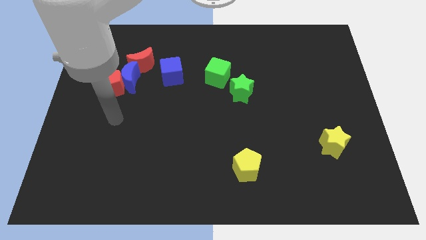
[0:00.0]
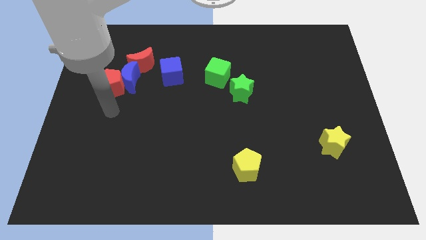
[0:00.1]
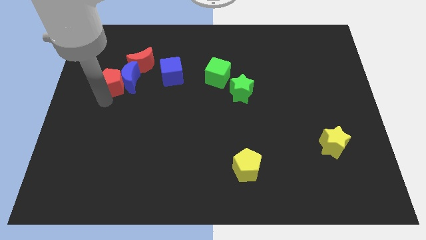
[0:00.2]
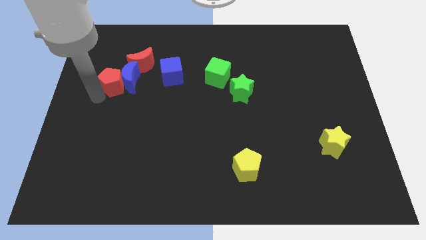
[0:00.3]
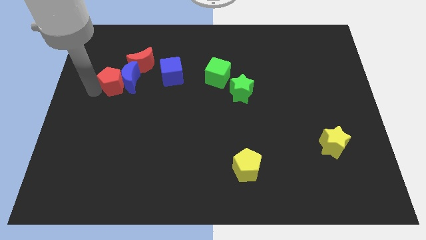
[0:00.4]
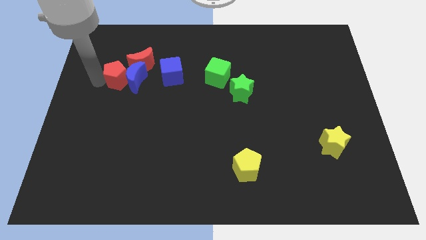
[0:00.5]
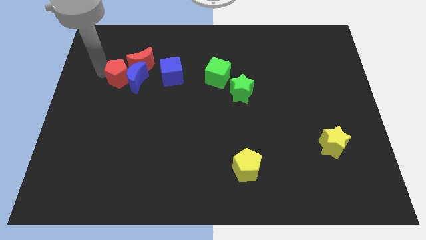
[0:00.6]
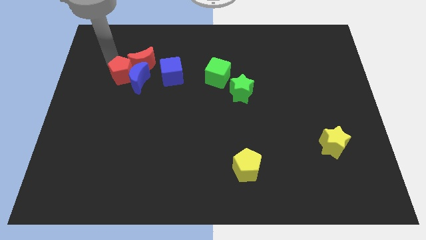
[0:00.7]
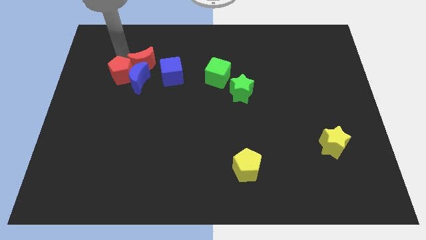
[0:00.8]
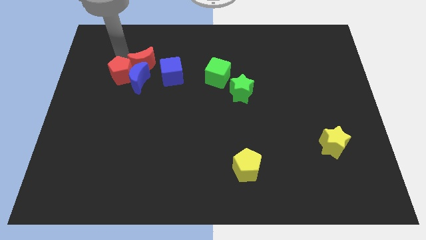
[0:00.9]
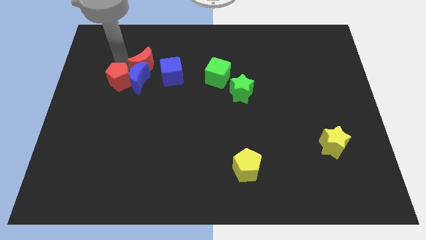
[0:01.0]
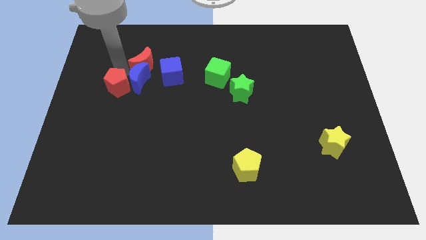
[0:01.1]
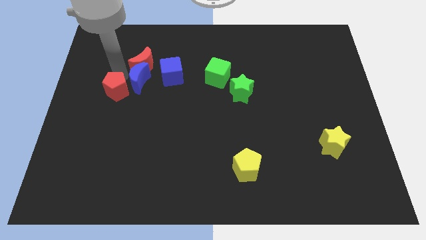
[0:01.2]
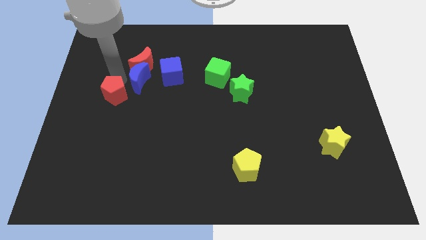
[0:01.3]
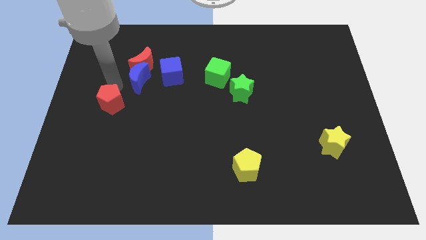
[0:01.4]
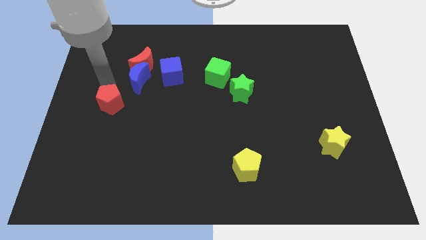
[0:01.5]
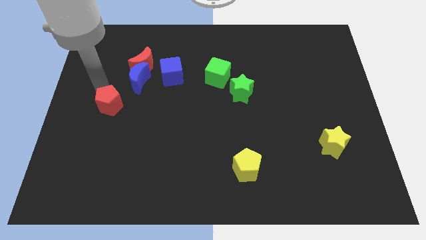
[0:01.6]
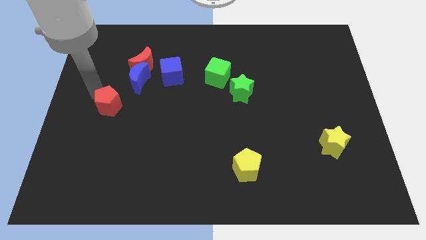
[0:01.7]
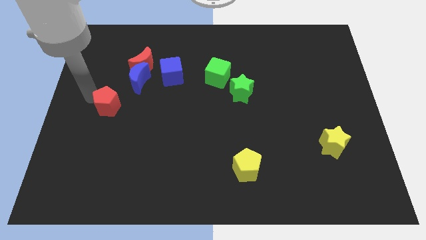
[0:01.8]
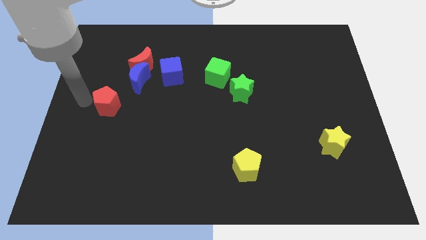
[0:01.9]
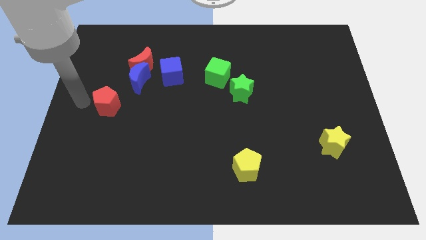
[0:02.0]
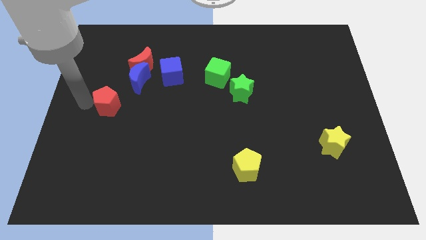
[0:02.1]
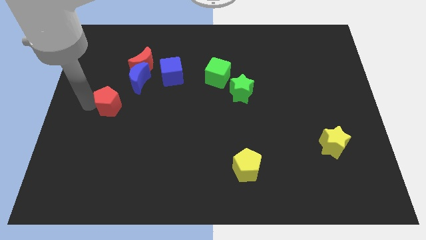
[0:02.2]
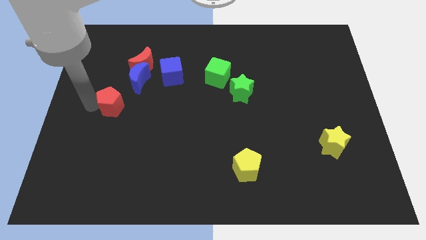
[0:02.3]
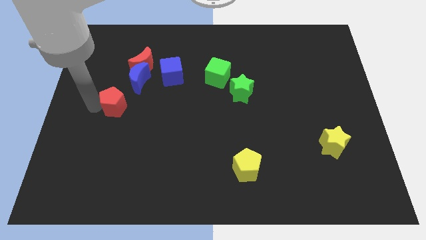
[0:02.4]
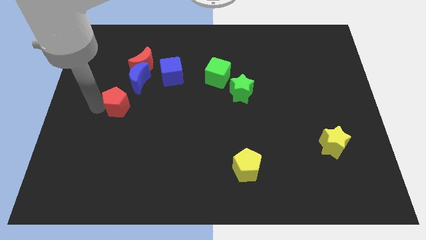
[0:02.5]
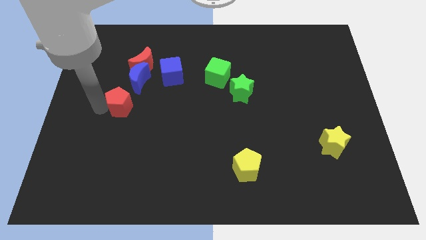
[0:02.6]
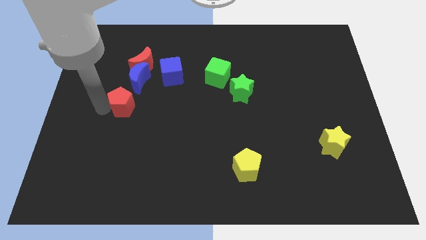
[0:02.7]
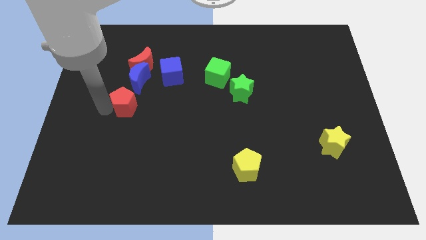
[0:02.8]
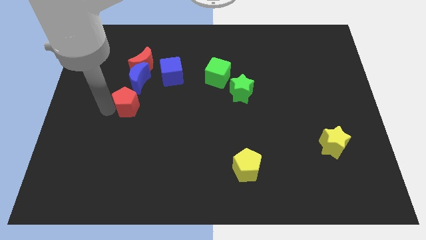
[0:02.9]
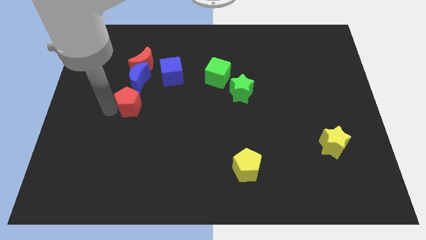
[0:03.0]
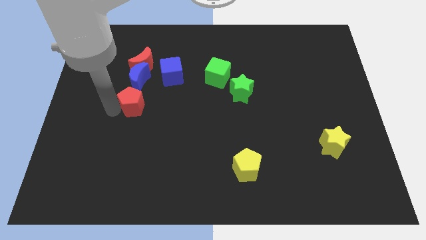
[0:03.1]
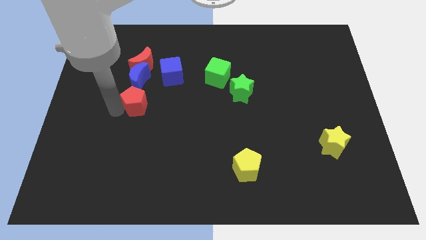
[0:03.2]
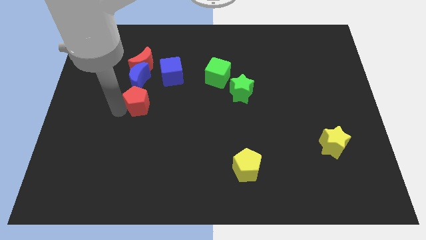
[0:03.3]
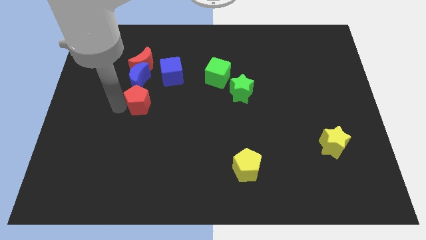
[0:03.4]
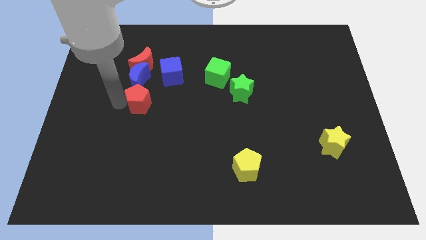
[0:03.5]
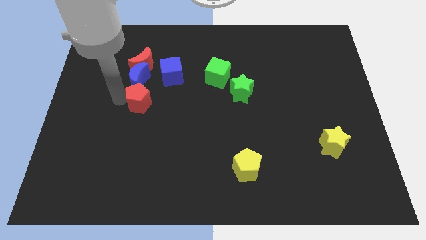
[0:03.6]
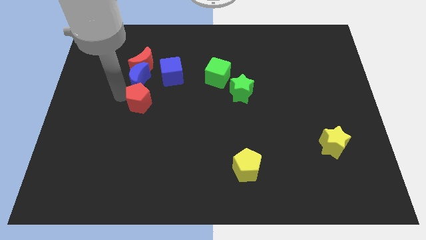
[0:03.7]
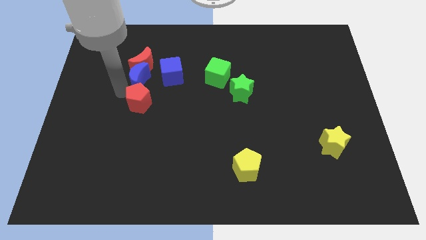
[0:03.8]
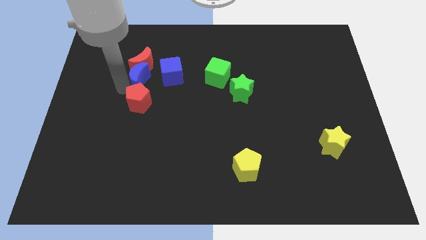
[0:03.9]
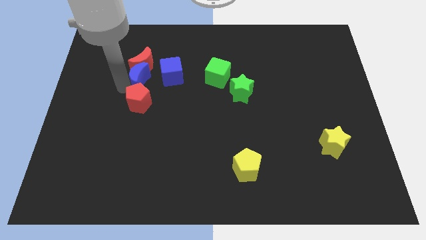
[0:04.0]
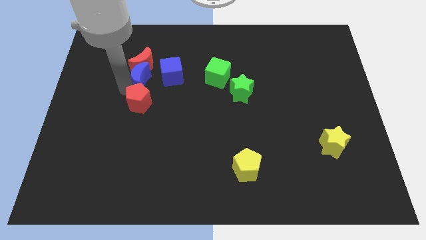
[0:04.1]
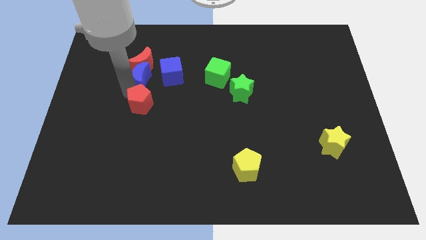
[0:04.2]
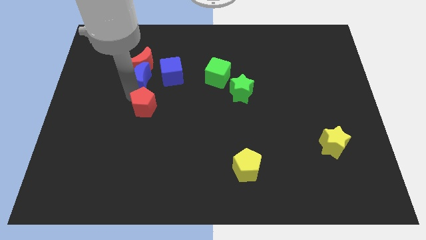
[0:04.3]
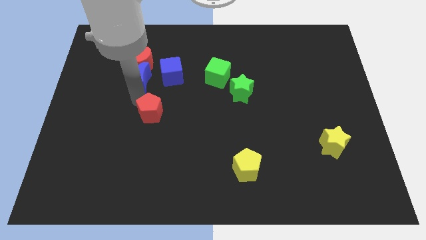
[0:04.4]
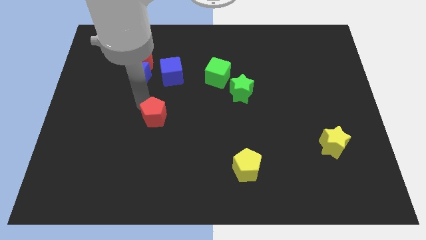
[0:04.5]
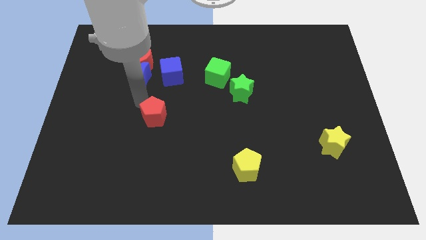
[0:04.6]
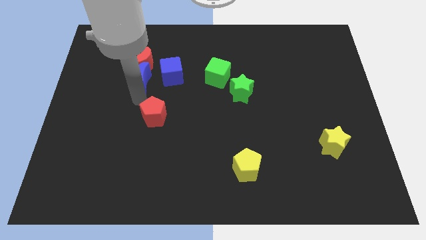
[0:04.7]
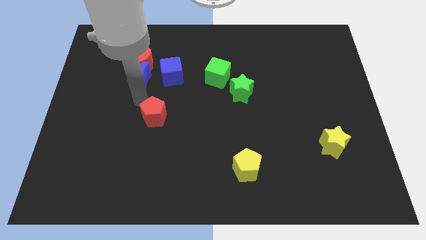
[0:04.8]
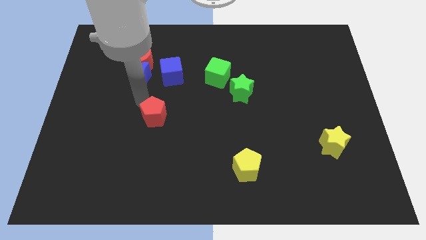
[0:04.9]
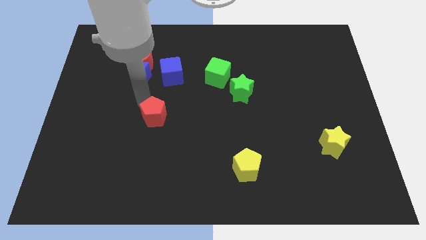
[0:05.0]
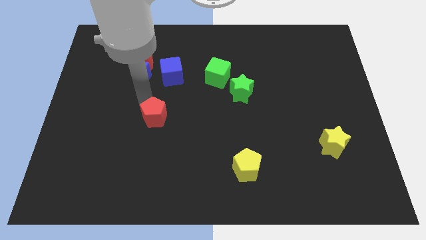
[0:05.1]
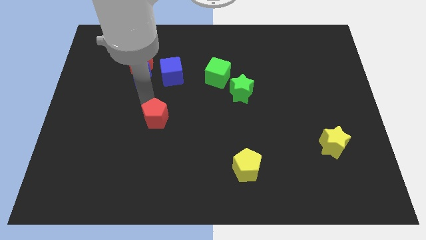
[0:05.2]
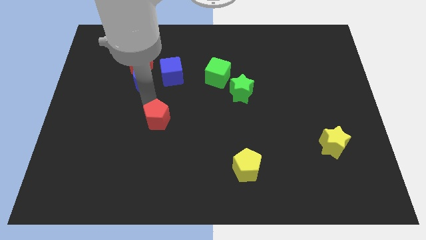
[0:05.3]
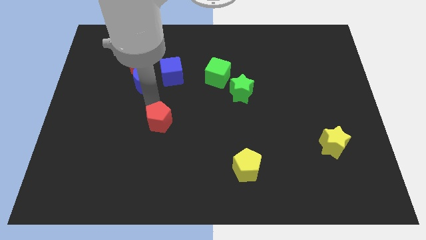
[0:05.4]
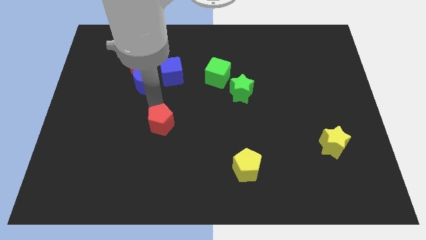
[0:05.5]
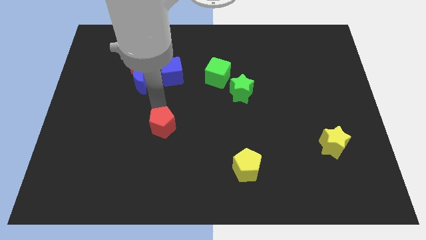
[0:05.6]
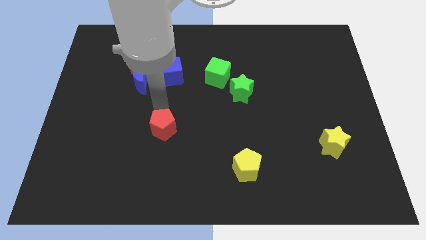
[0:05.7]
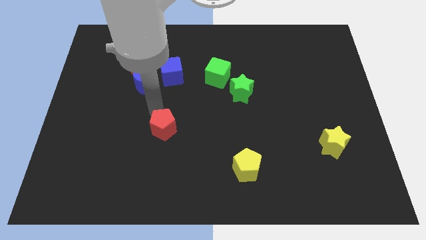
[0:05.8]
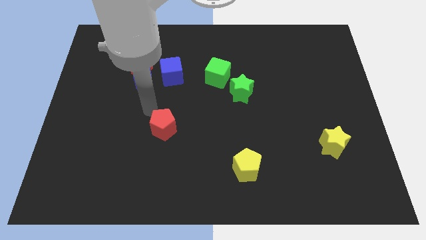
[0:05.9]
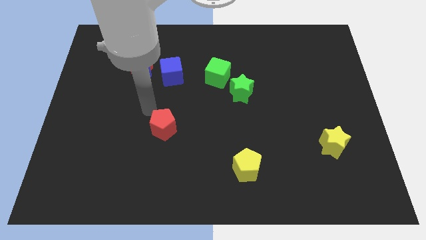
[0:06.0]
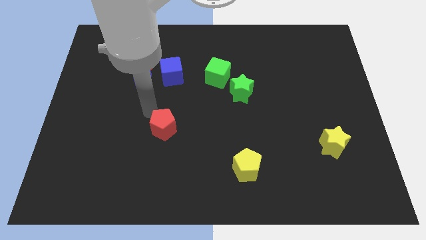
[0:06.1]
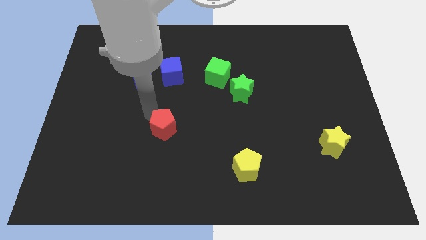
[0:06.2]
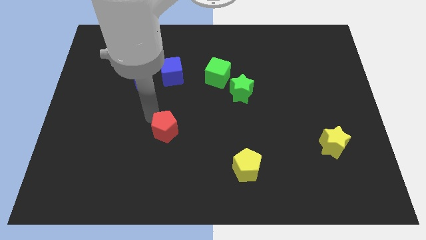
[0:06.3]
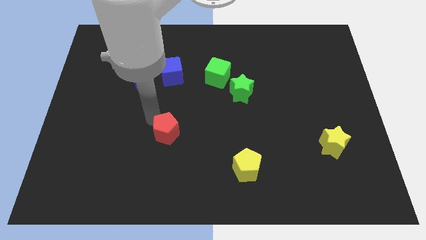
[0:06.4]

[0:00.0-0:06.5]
move the red pentagon downwards and right

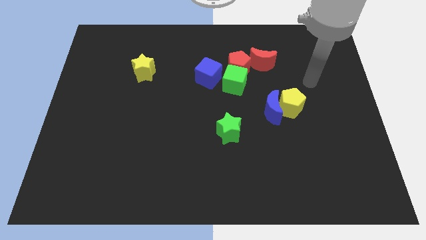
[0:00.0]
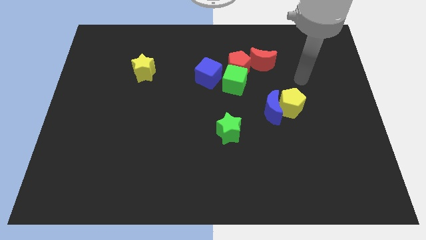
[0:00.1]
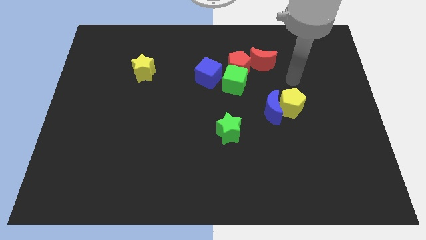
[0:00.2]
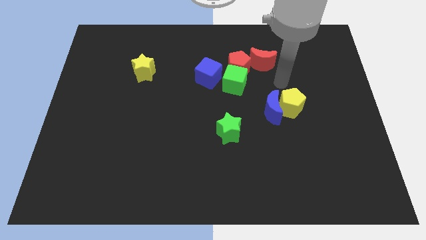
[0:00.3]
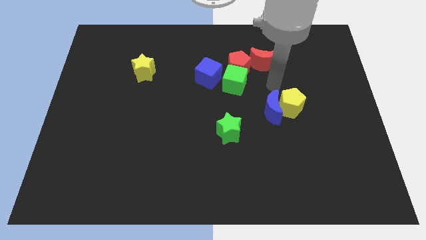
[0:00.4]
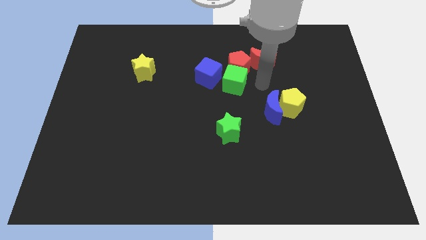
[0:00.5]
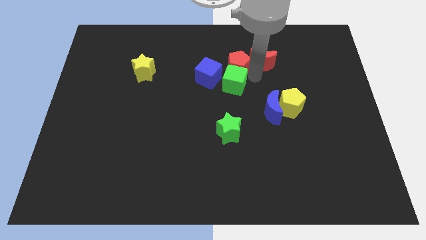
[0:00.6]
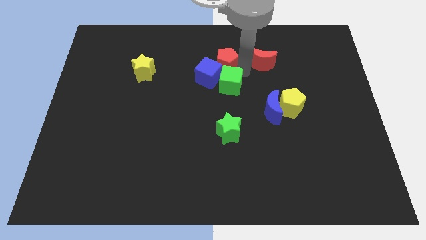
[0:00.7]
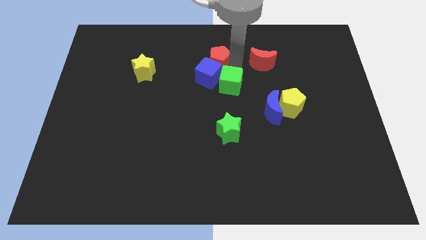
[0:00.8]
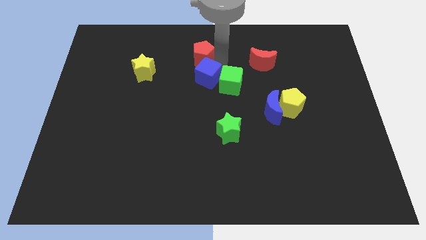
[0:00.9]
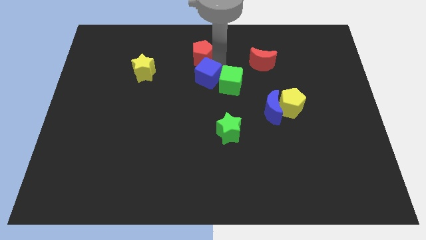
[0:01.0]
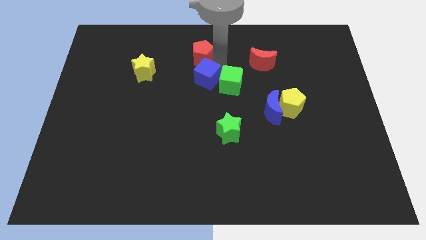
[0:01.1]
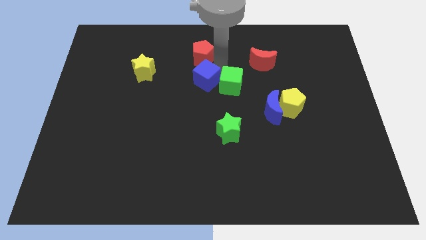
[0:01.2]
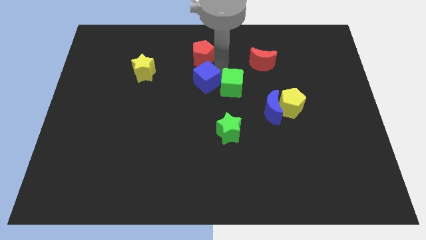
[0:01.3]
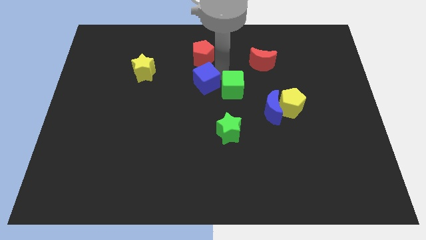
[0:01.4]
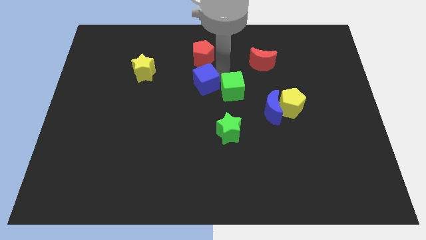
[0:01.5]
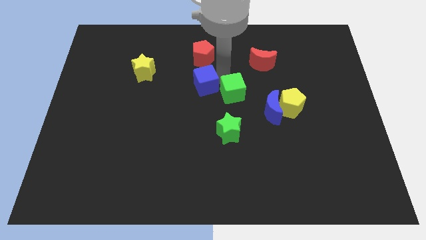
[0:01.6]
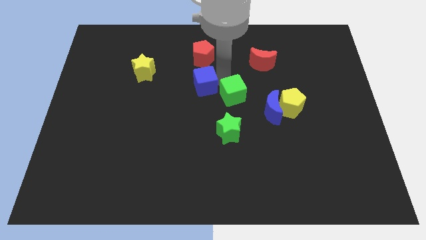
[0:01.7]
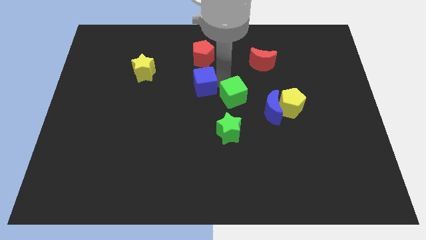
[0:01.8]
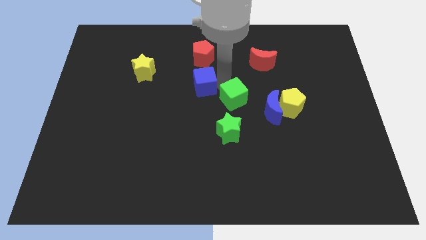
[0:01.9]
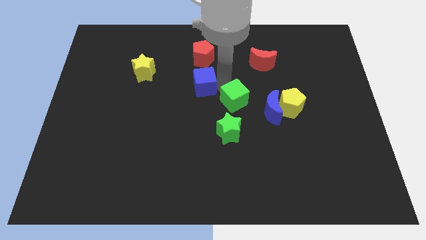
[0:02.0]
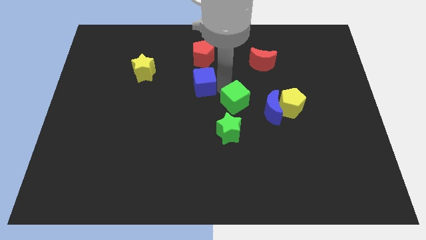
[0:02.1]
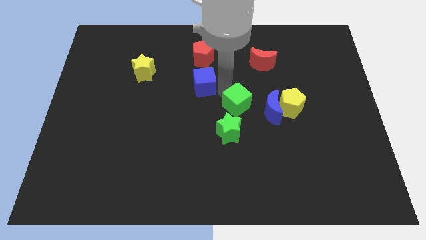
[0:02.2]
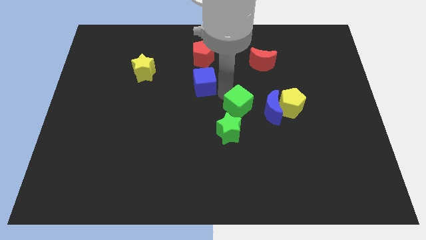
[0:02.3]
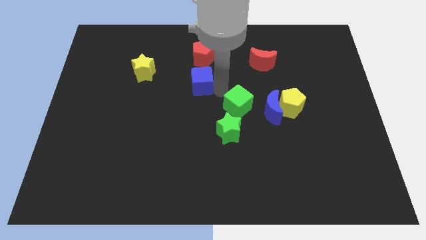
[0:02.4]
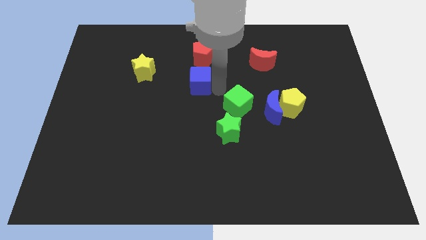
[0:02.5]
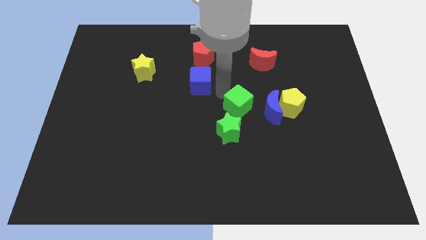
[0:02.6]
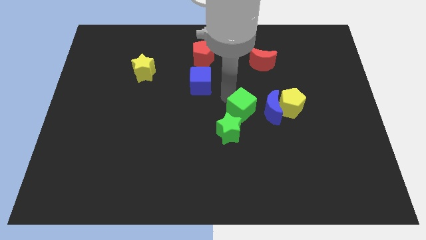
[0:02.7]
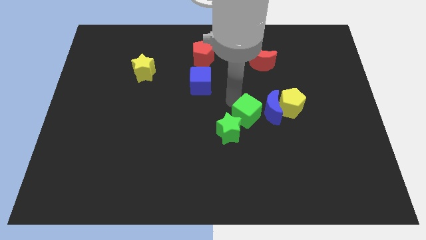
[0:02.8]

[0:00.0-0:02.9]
slightly push the green cube downwards and to the right diagonally
